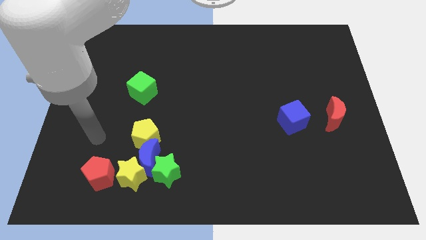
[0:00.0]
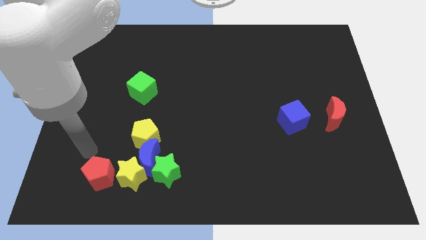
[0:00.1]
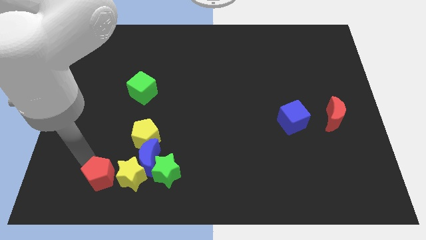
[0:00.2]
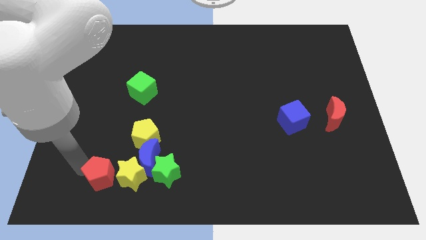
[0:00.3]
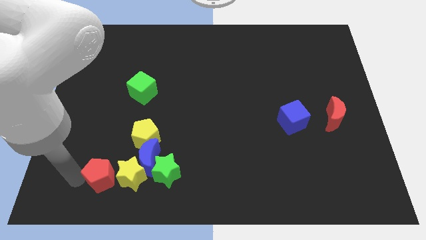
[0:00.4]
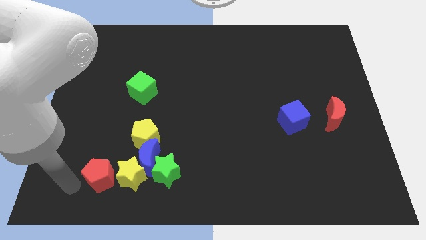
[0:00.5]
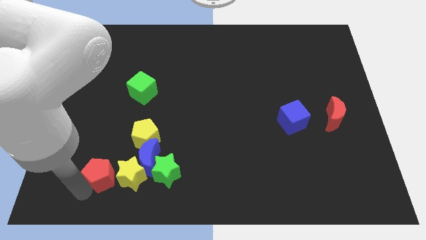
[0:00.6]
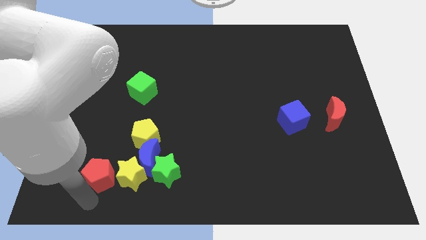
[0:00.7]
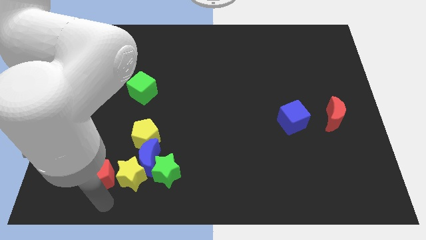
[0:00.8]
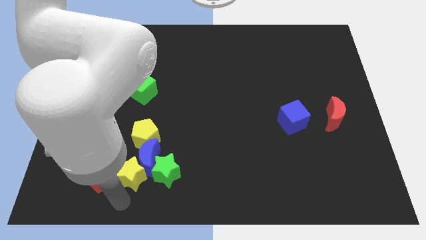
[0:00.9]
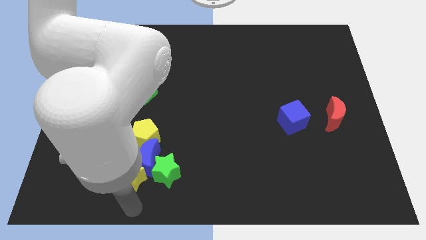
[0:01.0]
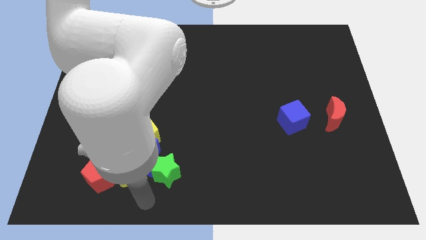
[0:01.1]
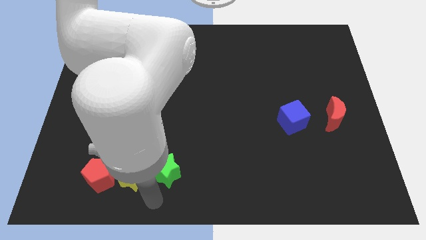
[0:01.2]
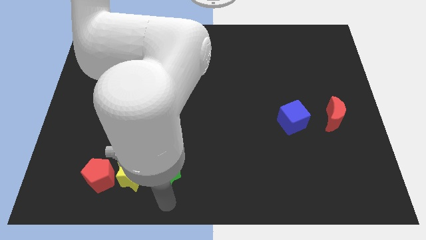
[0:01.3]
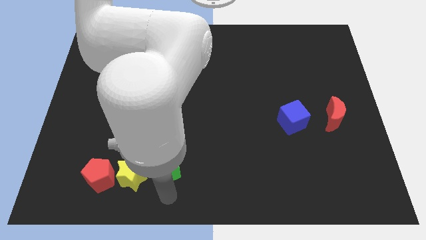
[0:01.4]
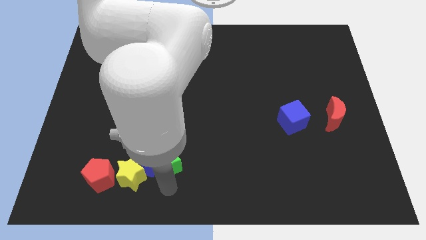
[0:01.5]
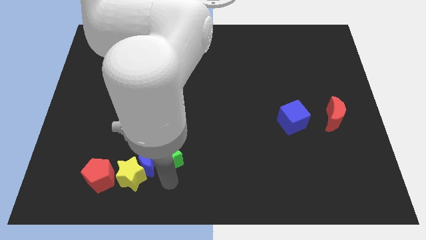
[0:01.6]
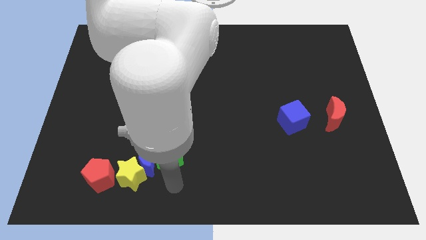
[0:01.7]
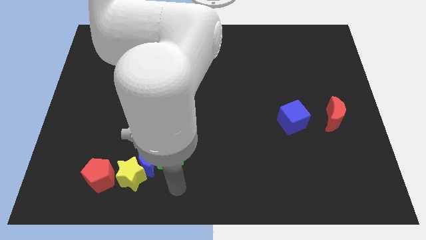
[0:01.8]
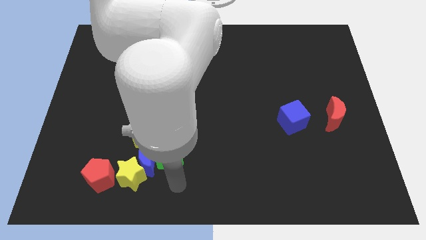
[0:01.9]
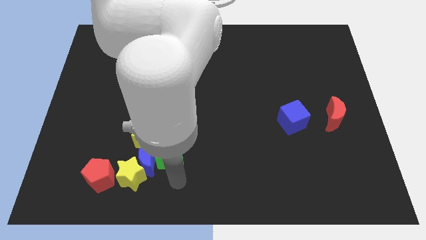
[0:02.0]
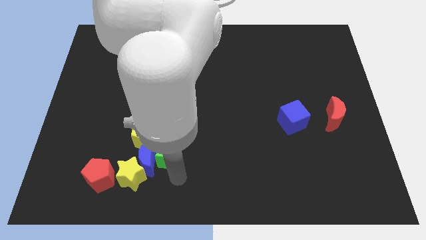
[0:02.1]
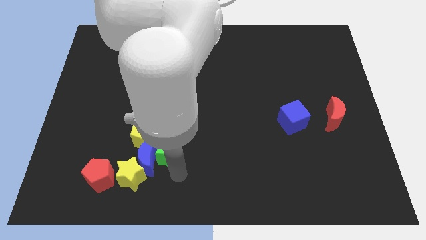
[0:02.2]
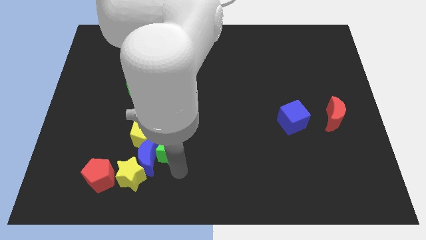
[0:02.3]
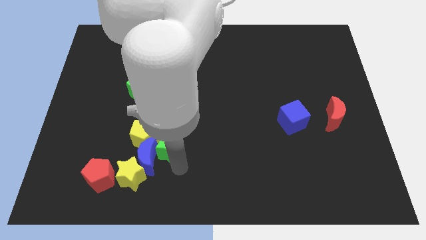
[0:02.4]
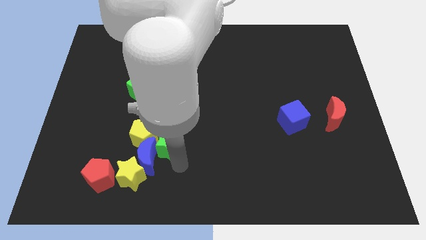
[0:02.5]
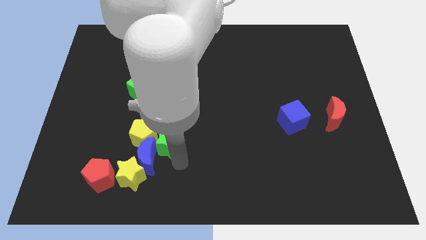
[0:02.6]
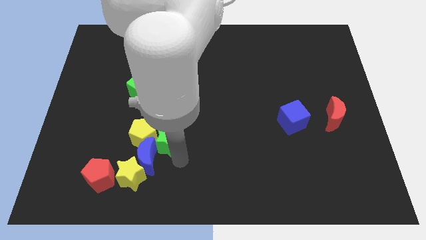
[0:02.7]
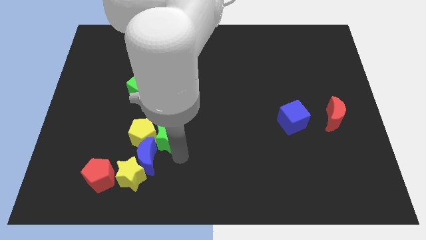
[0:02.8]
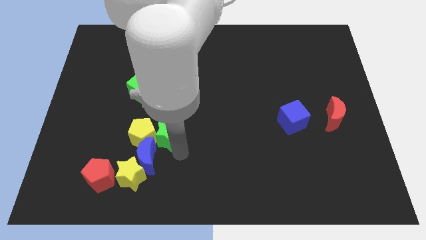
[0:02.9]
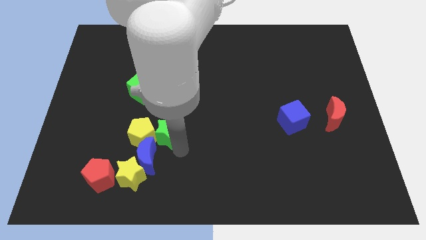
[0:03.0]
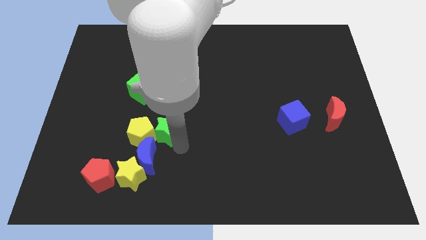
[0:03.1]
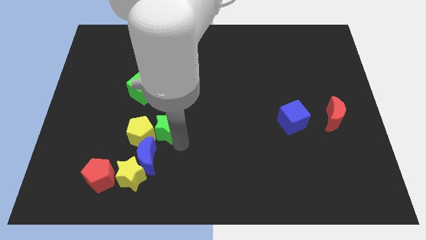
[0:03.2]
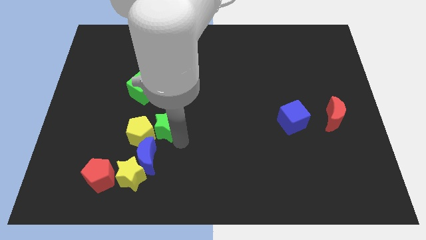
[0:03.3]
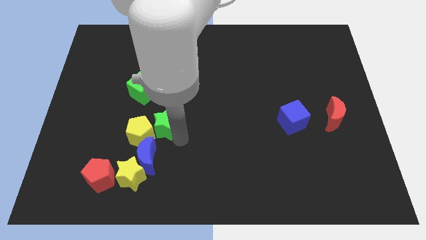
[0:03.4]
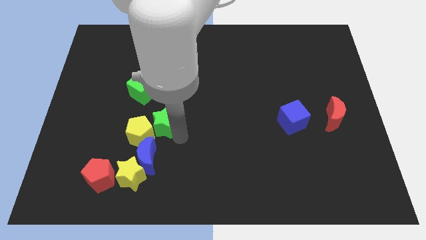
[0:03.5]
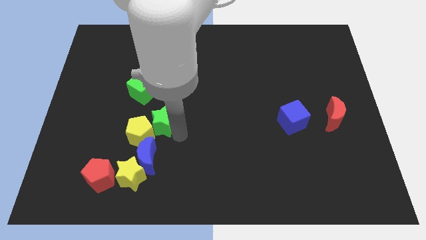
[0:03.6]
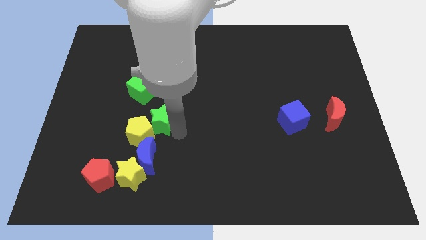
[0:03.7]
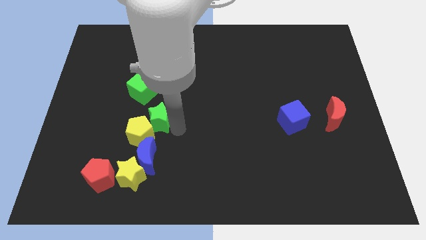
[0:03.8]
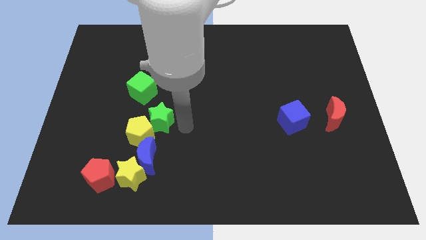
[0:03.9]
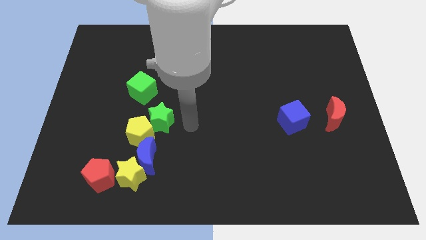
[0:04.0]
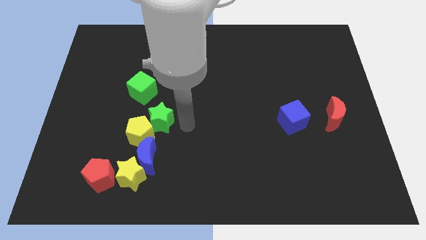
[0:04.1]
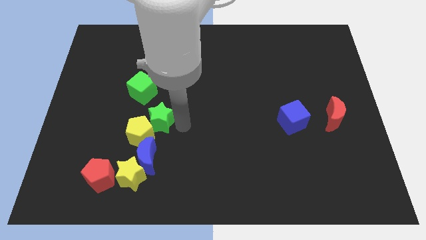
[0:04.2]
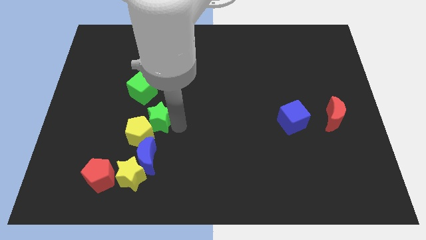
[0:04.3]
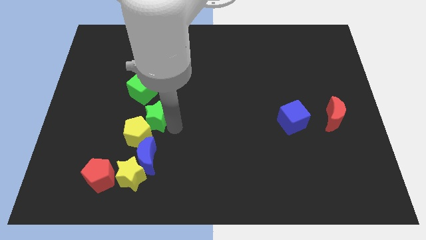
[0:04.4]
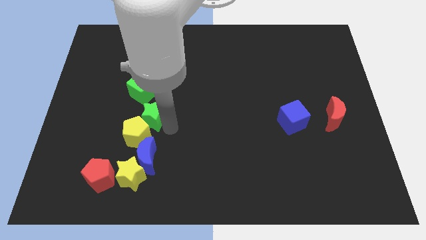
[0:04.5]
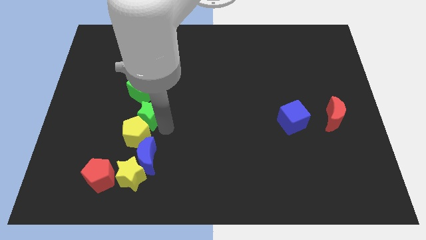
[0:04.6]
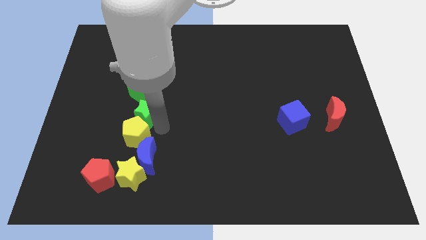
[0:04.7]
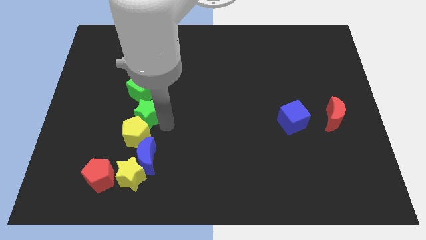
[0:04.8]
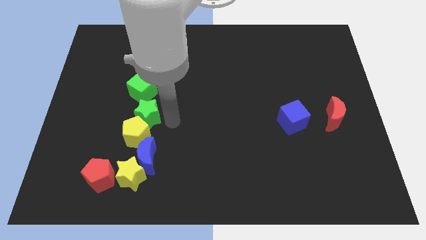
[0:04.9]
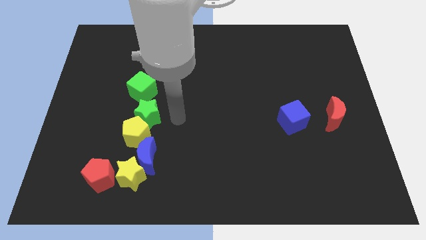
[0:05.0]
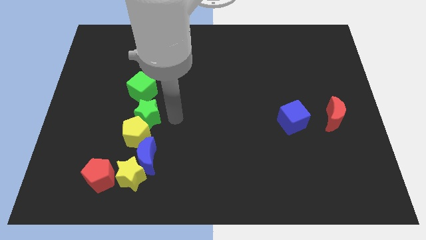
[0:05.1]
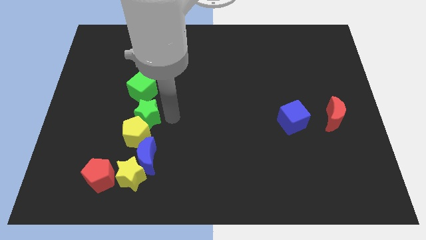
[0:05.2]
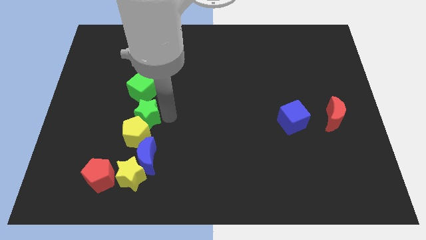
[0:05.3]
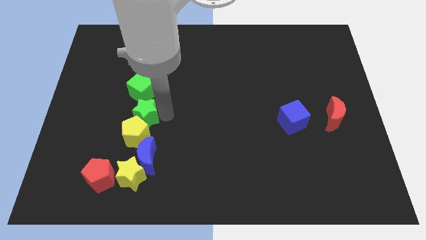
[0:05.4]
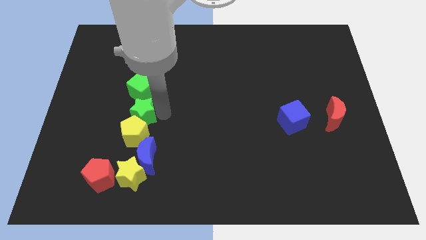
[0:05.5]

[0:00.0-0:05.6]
push the green star to the top left side of the yellow pentagon

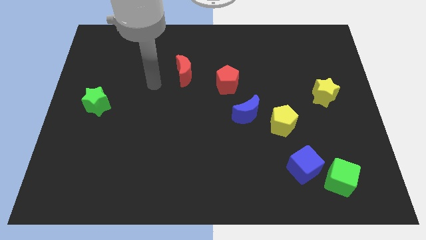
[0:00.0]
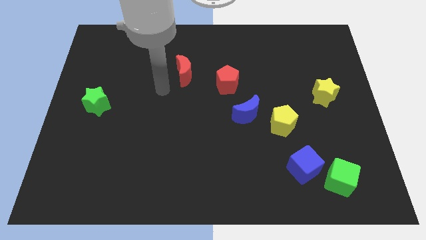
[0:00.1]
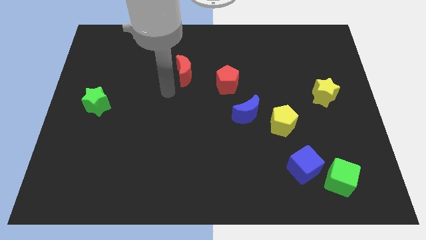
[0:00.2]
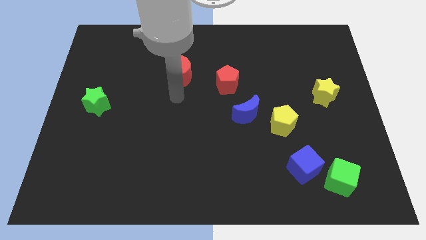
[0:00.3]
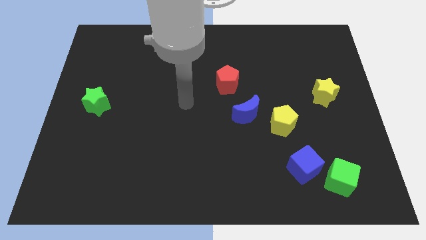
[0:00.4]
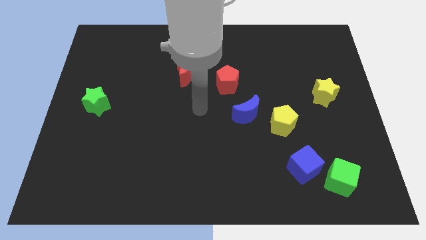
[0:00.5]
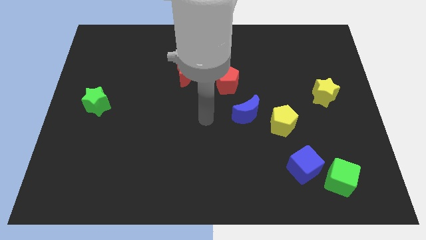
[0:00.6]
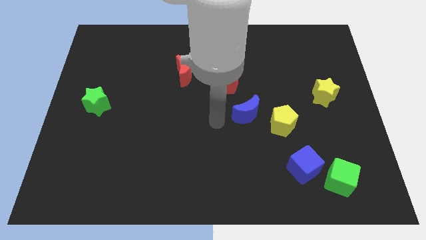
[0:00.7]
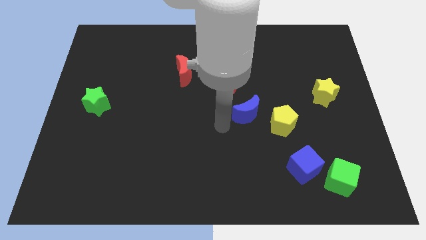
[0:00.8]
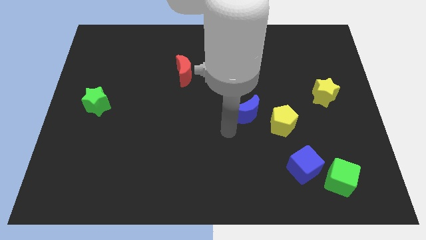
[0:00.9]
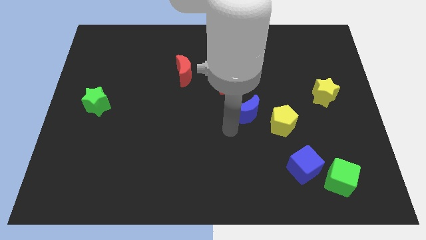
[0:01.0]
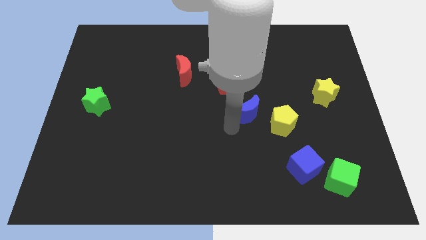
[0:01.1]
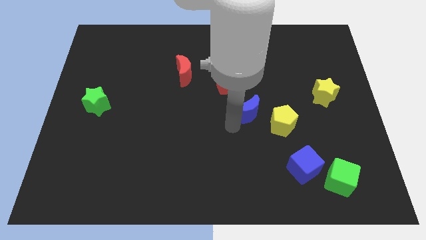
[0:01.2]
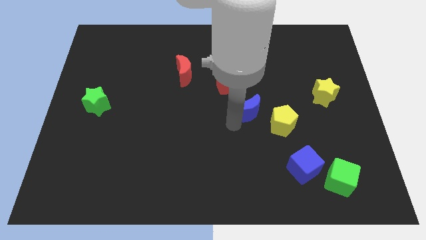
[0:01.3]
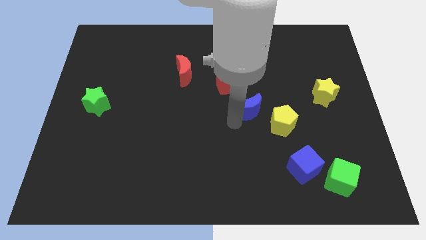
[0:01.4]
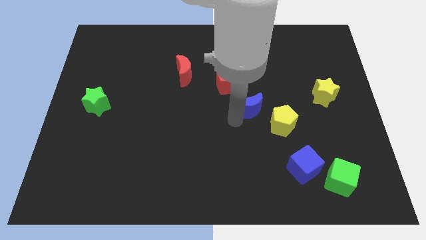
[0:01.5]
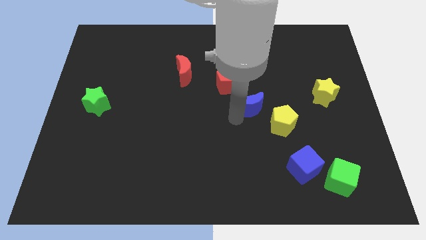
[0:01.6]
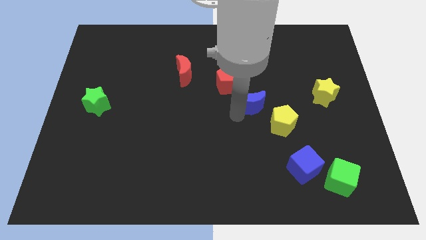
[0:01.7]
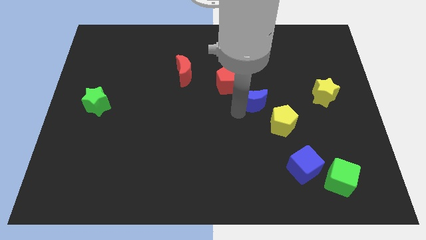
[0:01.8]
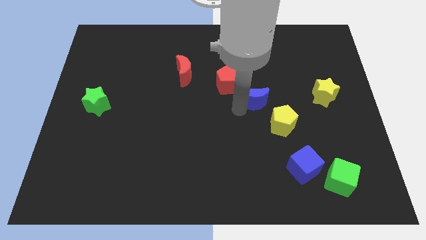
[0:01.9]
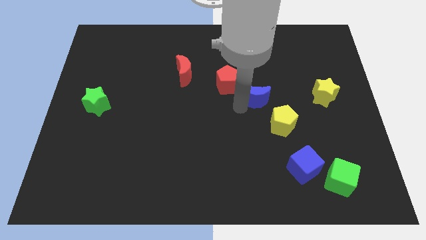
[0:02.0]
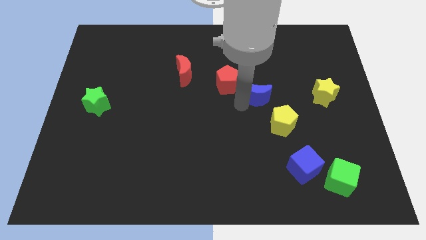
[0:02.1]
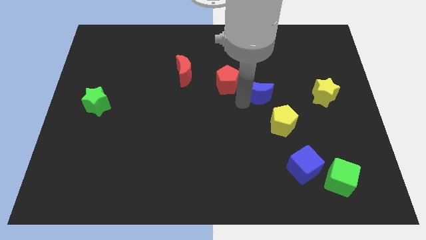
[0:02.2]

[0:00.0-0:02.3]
put the blue moon to the left of the yellow star
